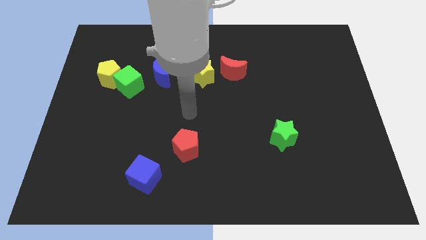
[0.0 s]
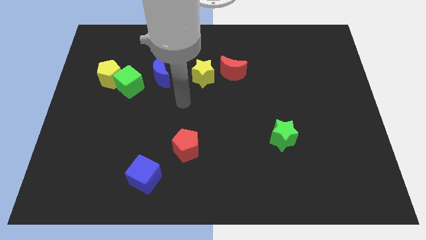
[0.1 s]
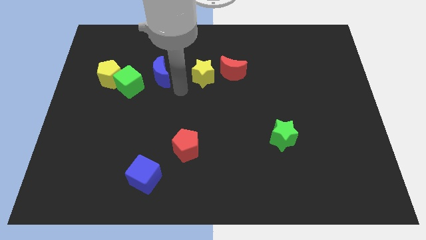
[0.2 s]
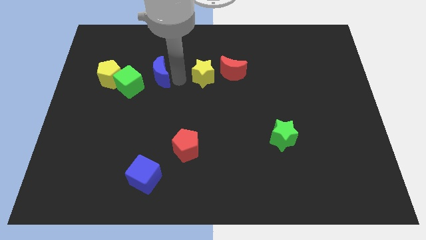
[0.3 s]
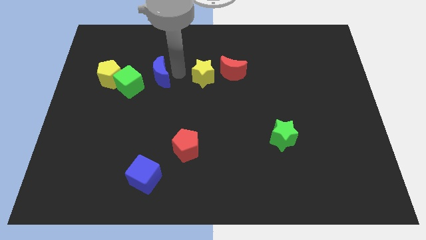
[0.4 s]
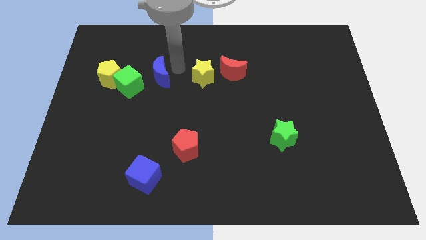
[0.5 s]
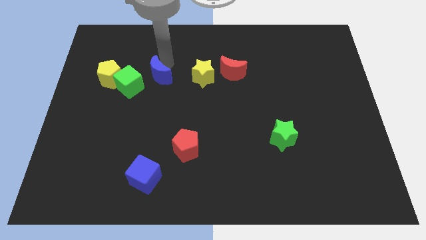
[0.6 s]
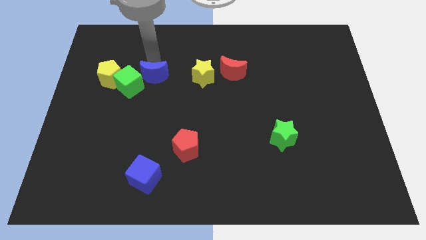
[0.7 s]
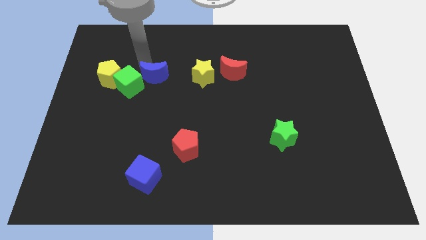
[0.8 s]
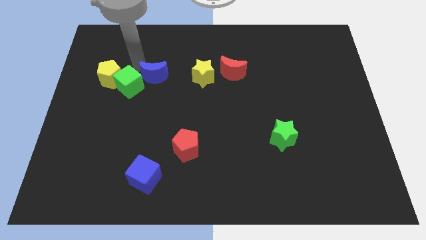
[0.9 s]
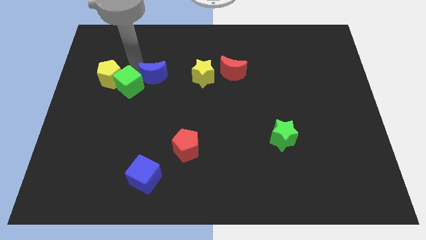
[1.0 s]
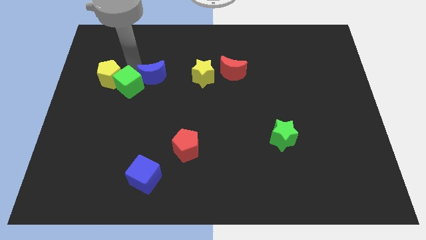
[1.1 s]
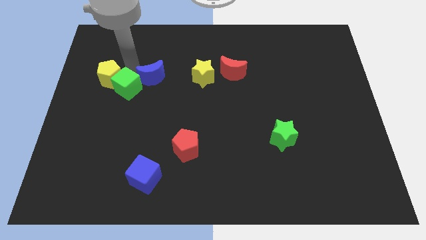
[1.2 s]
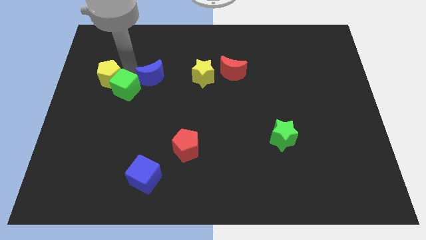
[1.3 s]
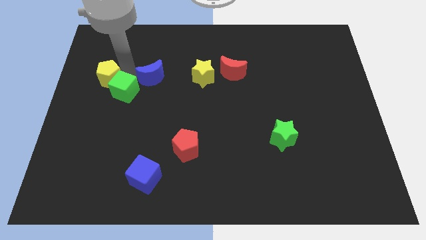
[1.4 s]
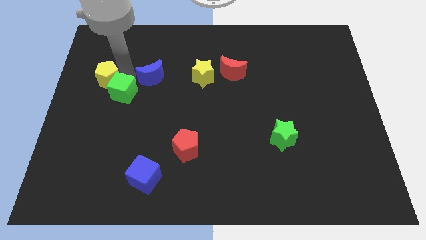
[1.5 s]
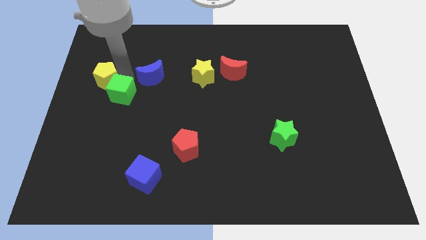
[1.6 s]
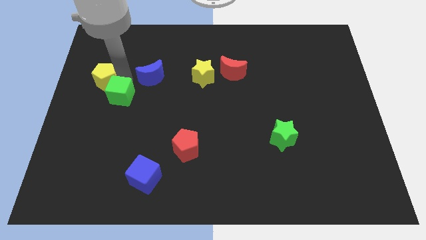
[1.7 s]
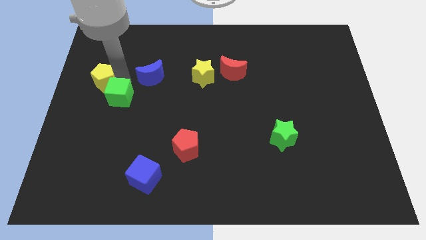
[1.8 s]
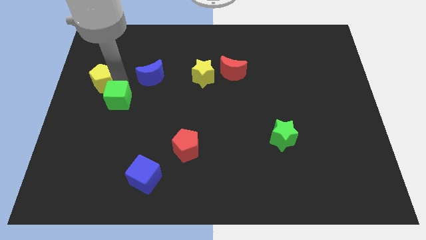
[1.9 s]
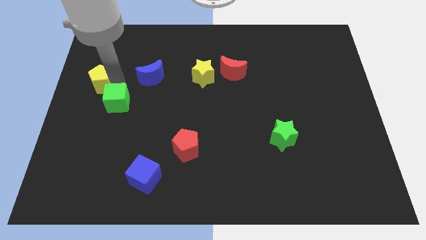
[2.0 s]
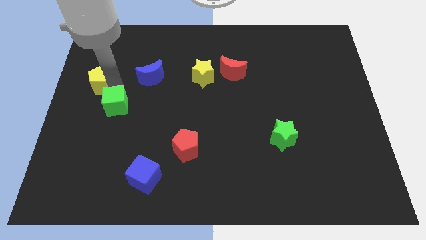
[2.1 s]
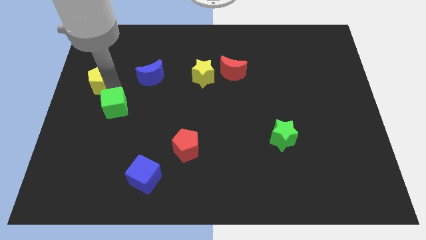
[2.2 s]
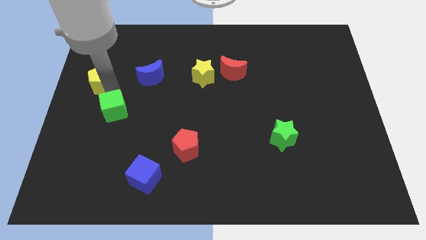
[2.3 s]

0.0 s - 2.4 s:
slightly slide the green cube downwards

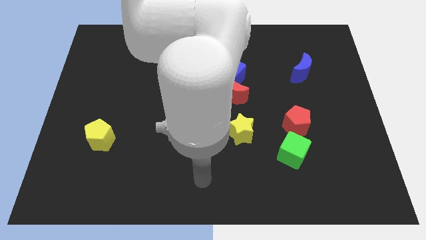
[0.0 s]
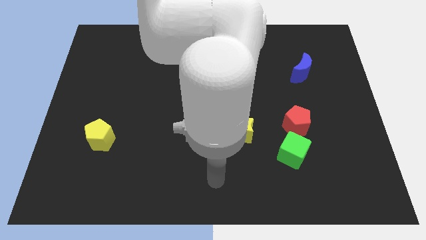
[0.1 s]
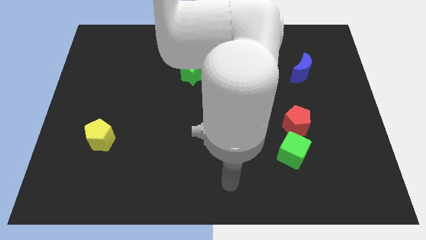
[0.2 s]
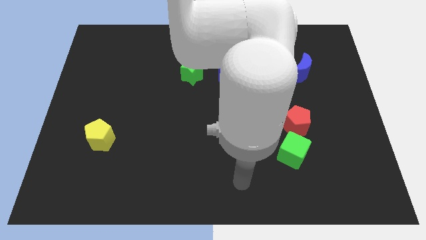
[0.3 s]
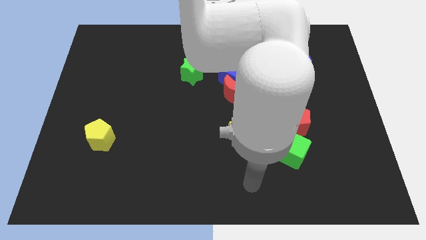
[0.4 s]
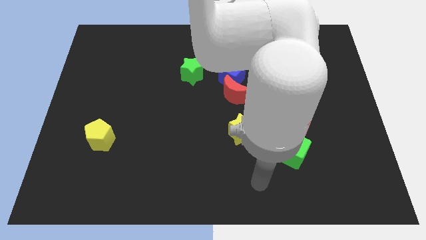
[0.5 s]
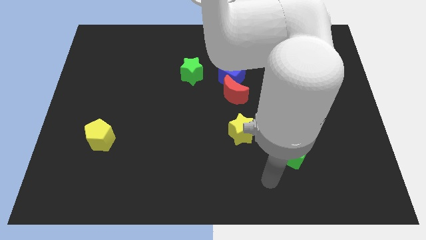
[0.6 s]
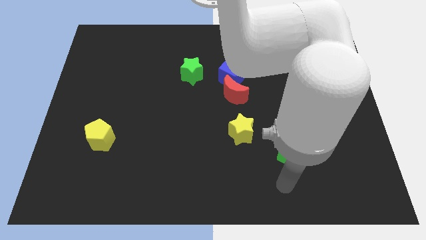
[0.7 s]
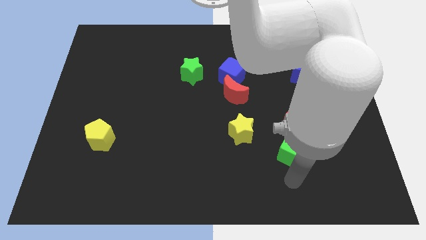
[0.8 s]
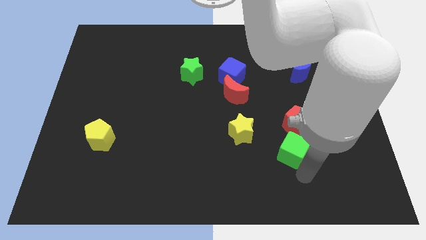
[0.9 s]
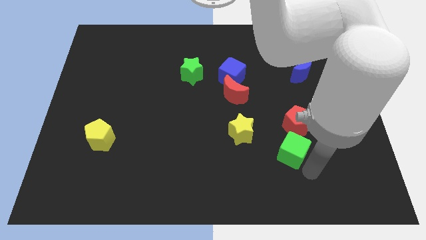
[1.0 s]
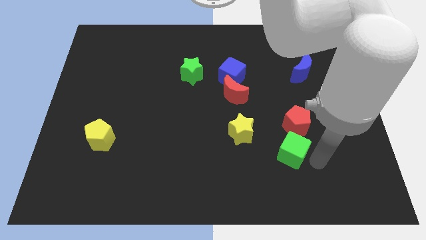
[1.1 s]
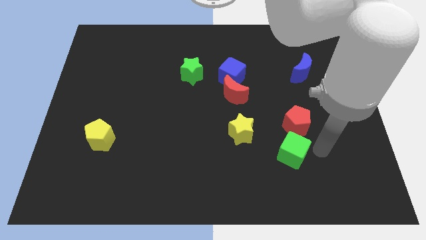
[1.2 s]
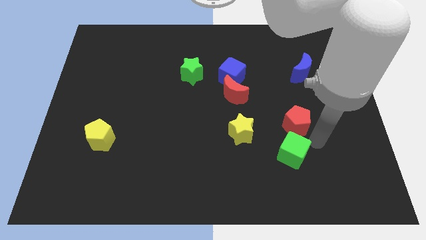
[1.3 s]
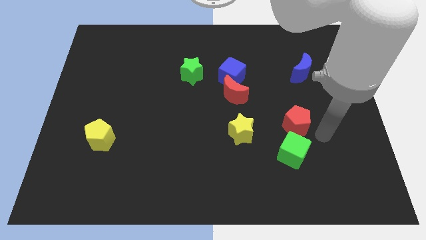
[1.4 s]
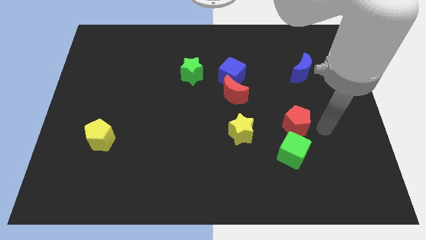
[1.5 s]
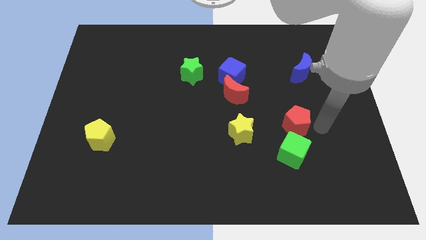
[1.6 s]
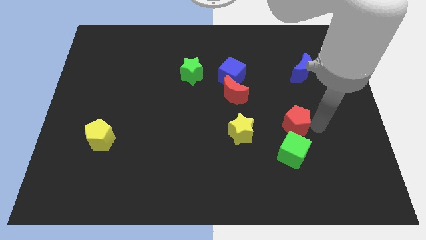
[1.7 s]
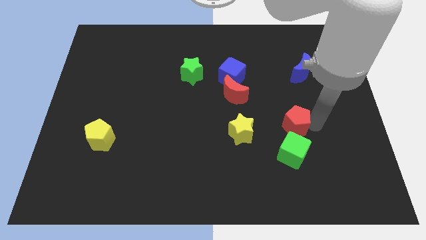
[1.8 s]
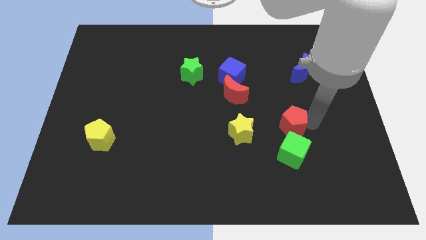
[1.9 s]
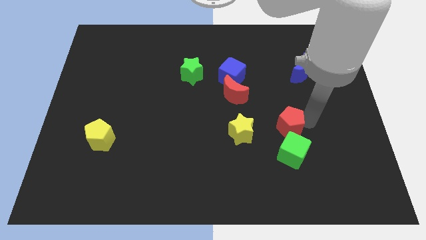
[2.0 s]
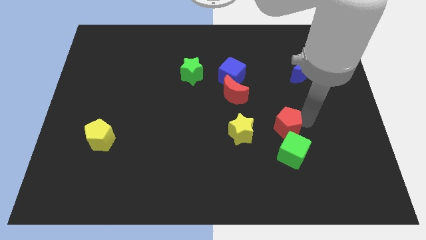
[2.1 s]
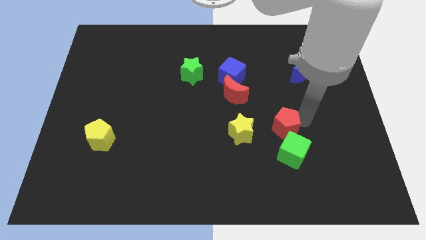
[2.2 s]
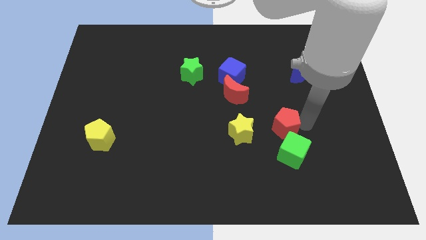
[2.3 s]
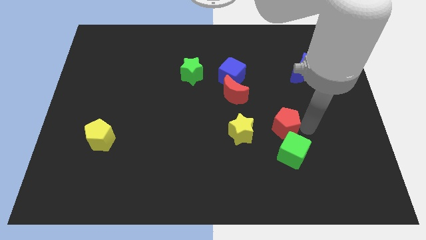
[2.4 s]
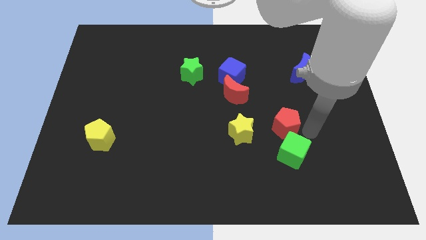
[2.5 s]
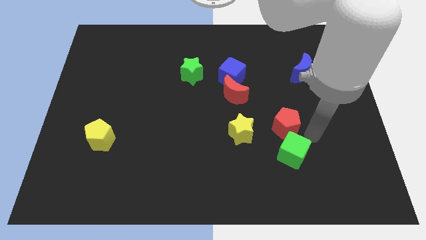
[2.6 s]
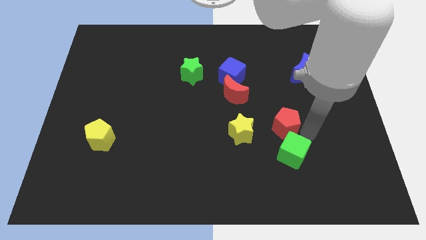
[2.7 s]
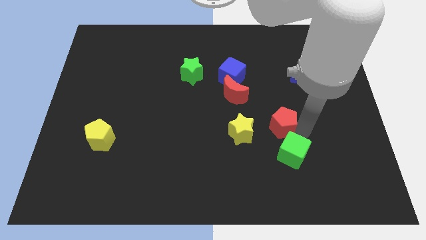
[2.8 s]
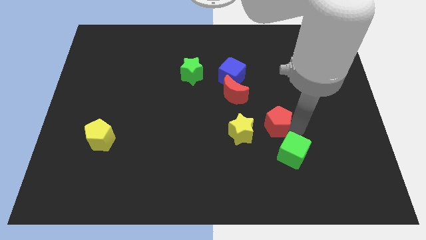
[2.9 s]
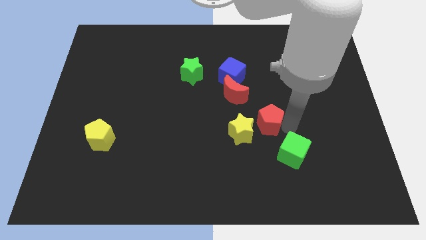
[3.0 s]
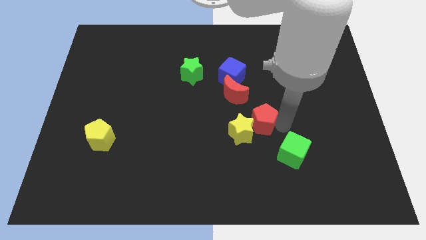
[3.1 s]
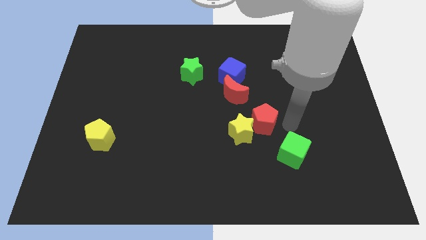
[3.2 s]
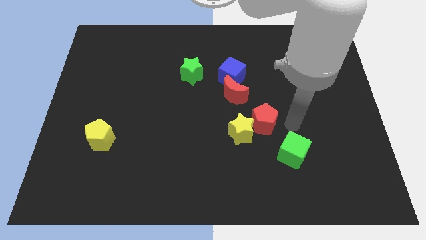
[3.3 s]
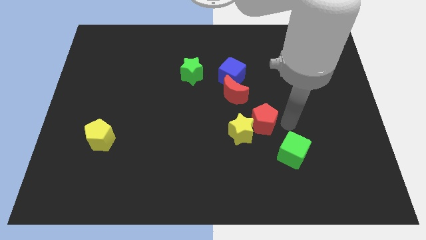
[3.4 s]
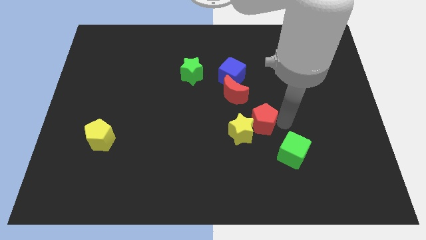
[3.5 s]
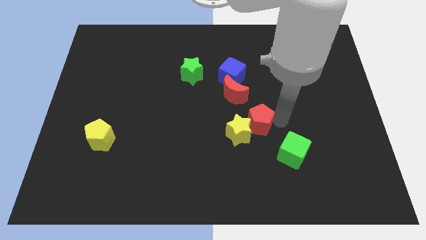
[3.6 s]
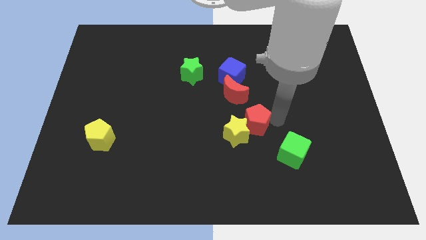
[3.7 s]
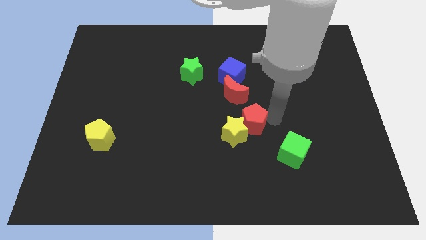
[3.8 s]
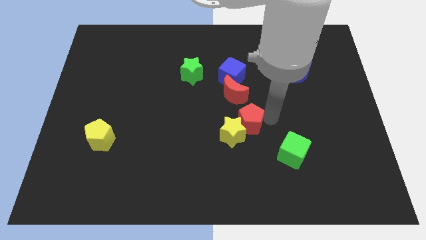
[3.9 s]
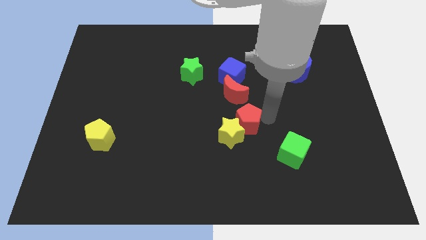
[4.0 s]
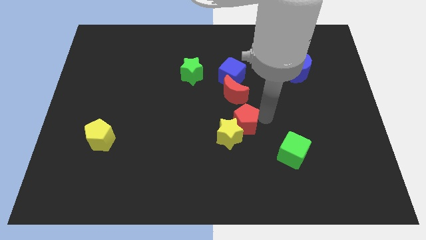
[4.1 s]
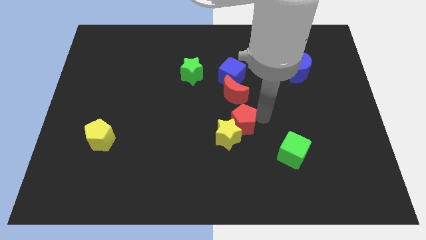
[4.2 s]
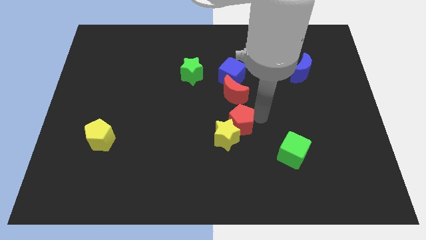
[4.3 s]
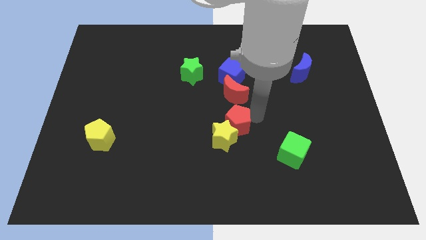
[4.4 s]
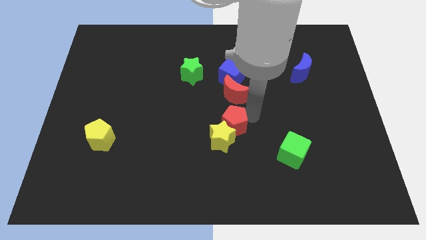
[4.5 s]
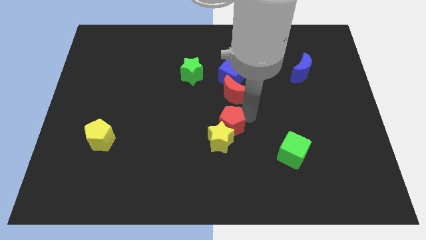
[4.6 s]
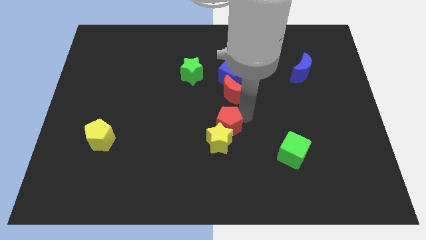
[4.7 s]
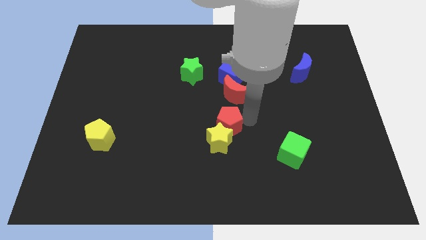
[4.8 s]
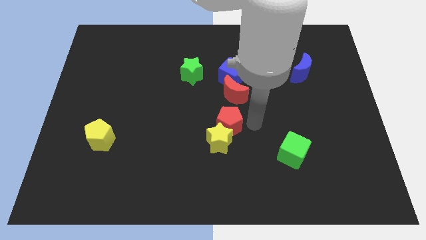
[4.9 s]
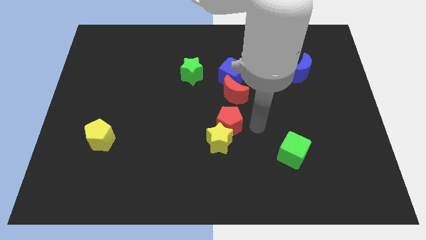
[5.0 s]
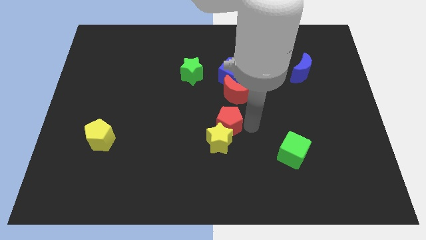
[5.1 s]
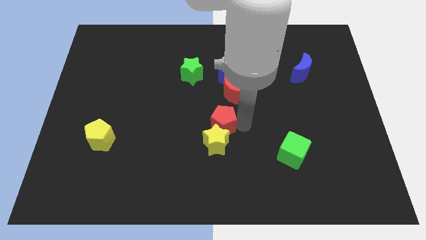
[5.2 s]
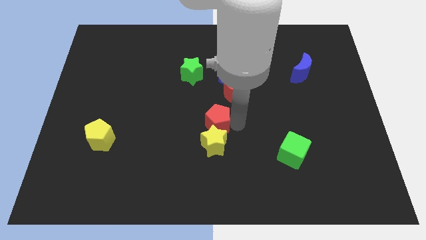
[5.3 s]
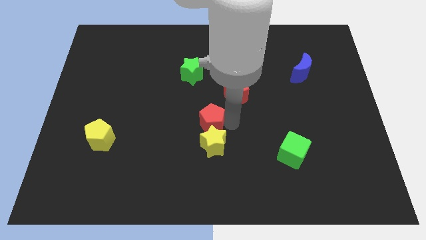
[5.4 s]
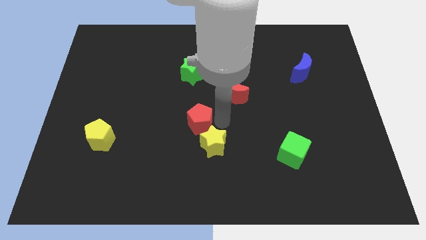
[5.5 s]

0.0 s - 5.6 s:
push the red pentagon to the left

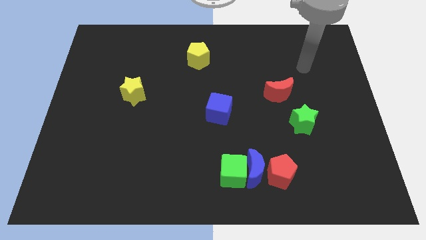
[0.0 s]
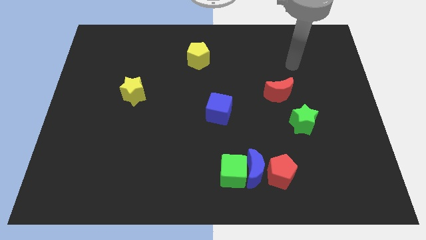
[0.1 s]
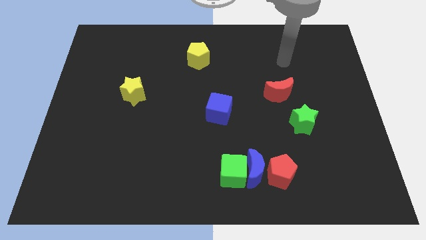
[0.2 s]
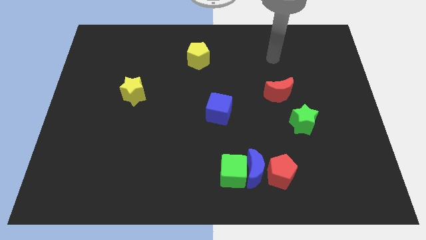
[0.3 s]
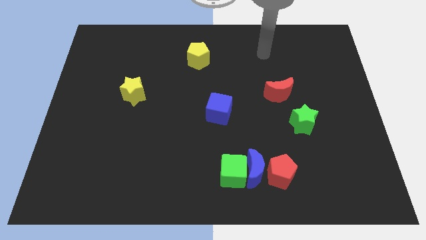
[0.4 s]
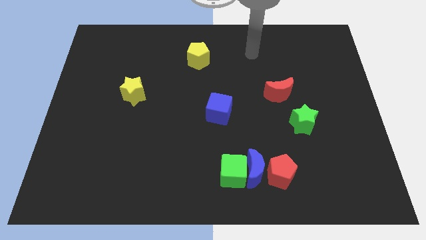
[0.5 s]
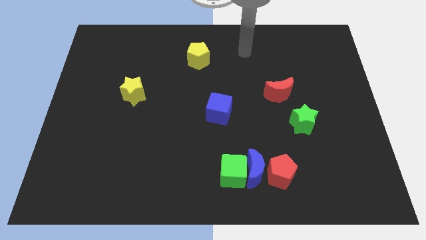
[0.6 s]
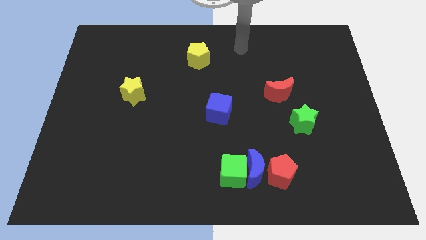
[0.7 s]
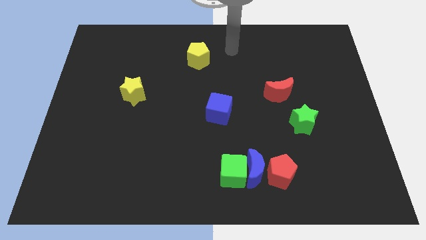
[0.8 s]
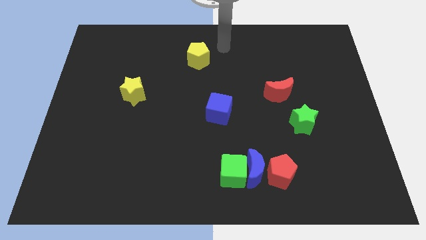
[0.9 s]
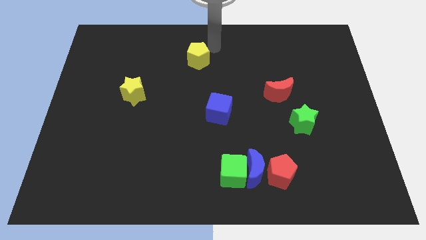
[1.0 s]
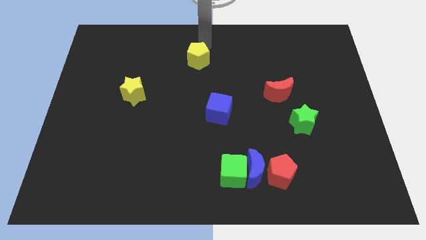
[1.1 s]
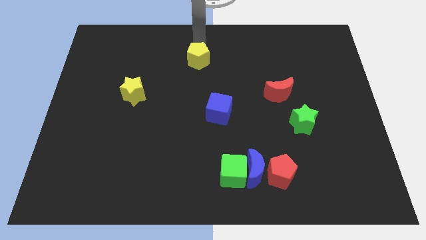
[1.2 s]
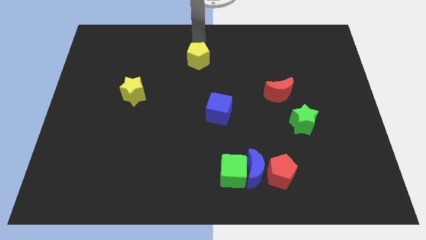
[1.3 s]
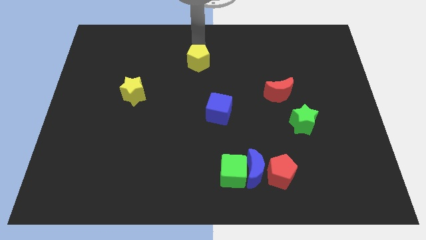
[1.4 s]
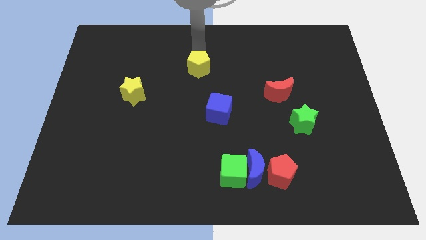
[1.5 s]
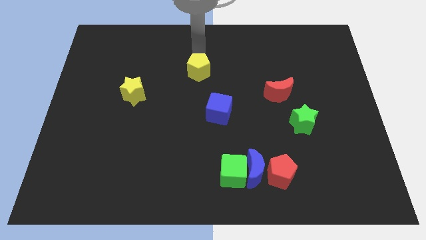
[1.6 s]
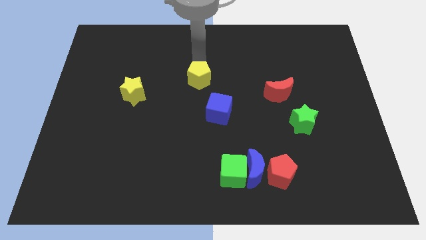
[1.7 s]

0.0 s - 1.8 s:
push the yellow pentagon a little bit down
